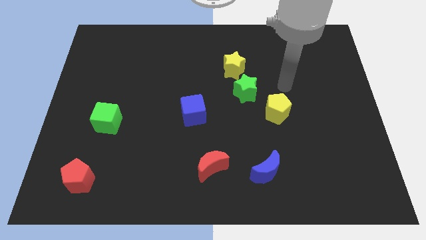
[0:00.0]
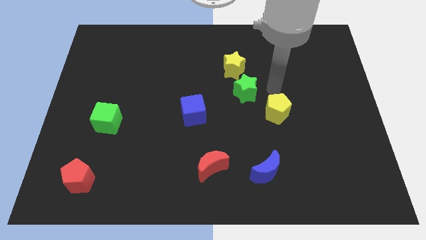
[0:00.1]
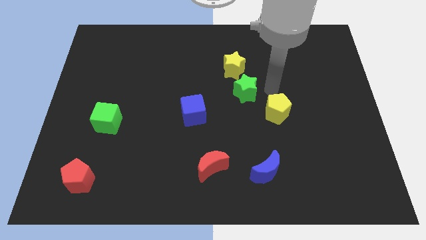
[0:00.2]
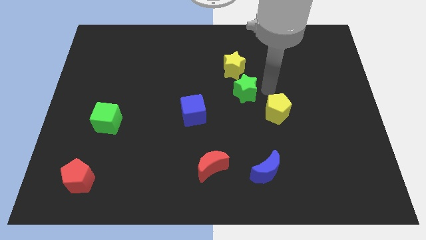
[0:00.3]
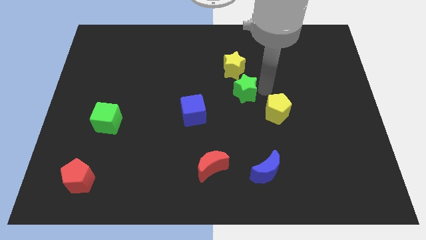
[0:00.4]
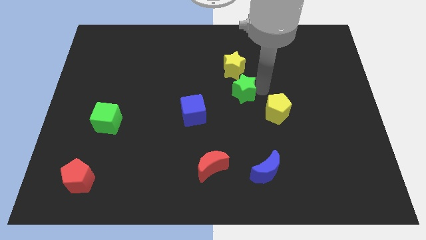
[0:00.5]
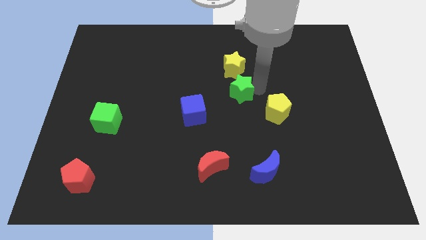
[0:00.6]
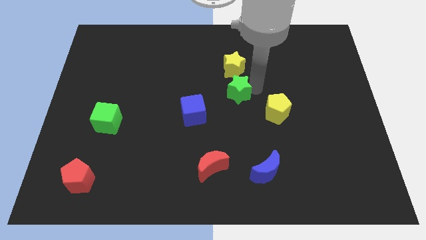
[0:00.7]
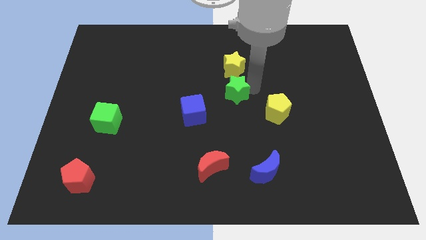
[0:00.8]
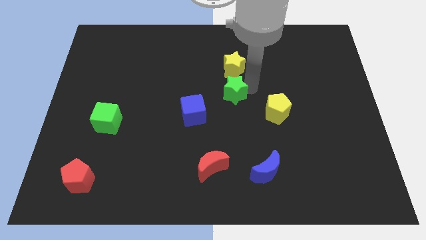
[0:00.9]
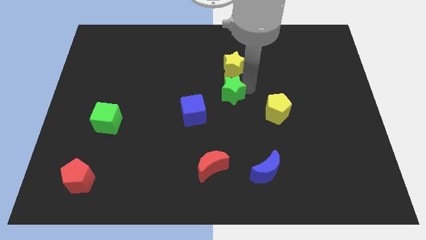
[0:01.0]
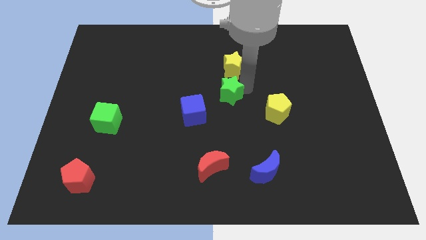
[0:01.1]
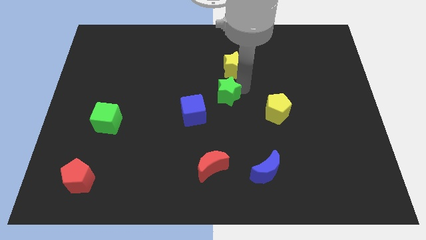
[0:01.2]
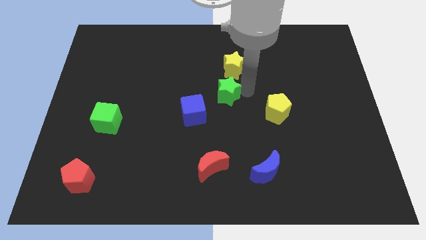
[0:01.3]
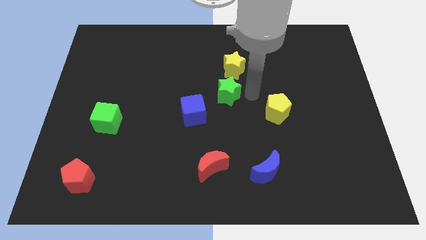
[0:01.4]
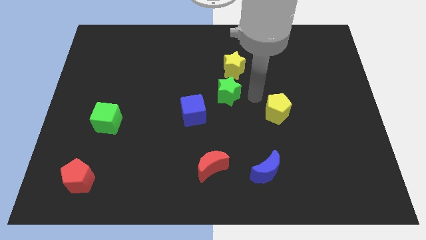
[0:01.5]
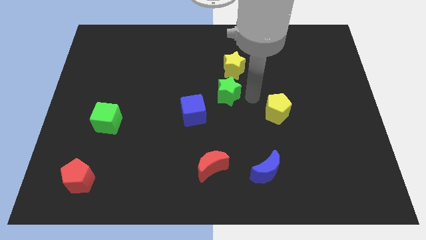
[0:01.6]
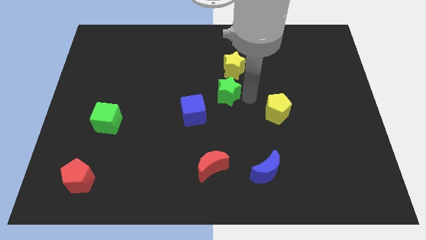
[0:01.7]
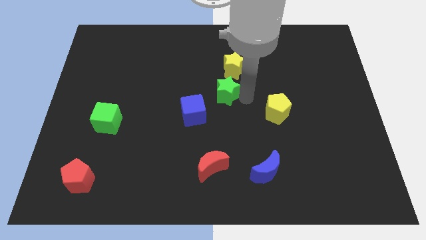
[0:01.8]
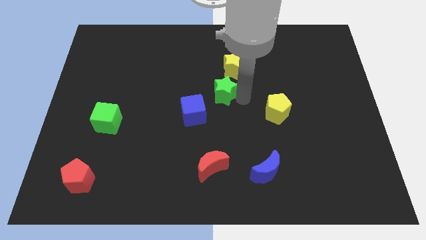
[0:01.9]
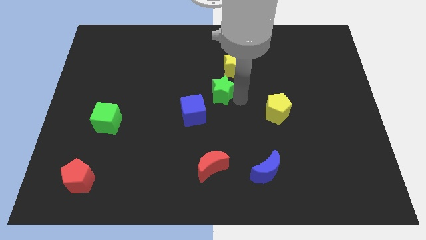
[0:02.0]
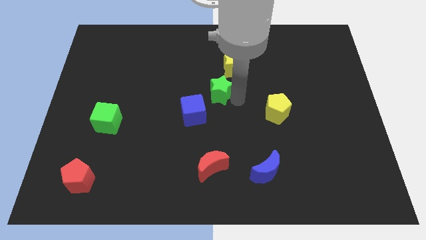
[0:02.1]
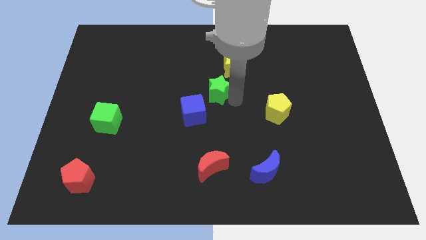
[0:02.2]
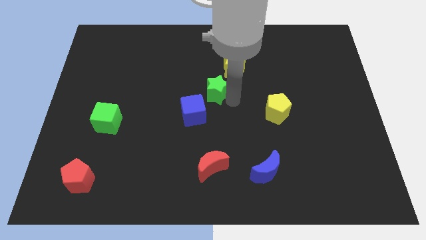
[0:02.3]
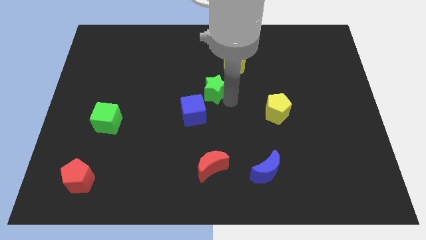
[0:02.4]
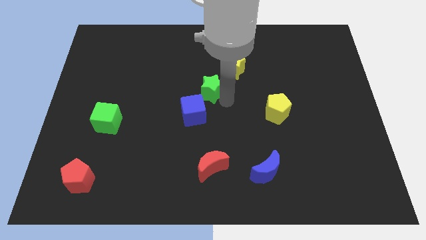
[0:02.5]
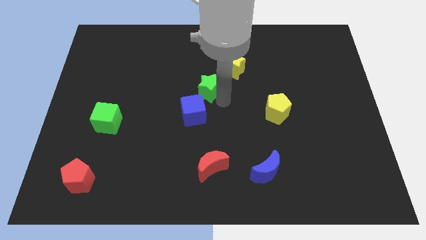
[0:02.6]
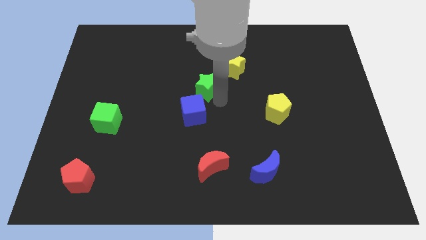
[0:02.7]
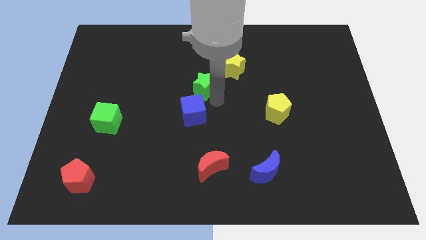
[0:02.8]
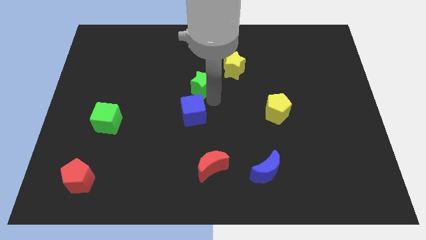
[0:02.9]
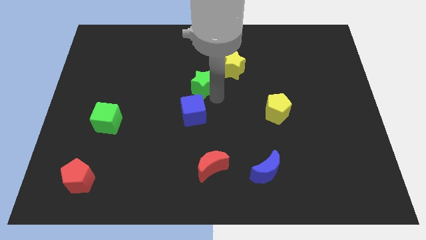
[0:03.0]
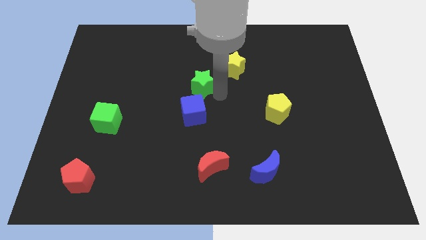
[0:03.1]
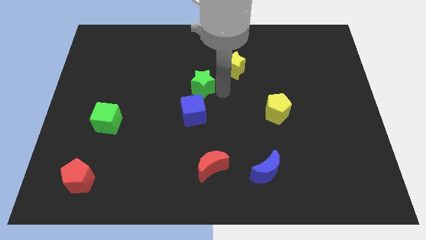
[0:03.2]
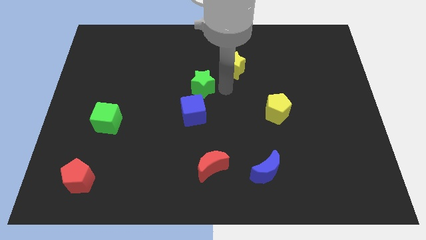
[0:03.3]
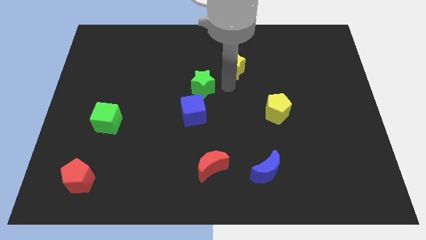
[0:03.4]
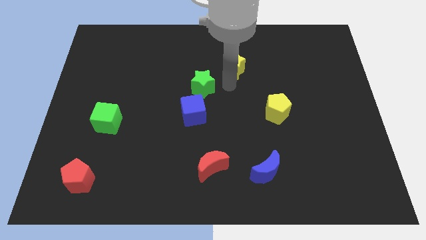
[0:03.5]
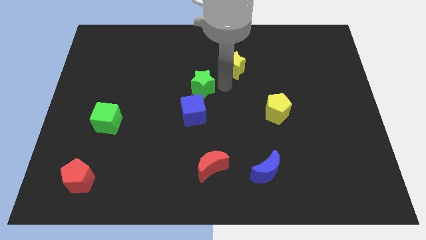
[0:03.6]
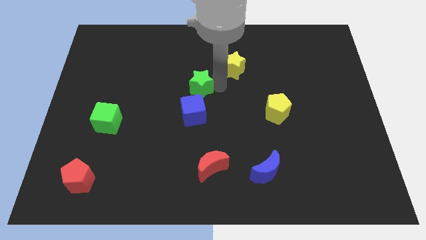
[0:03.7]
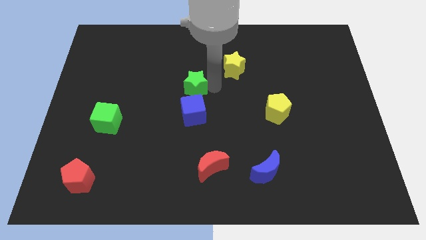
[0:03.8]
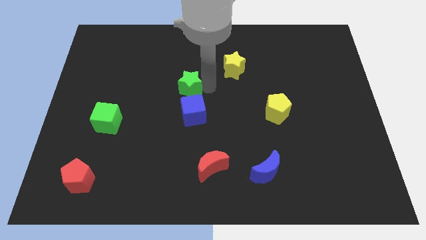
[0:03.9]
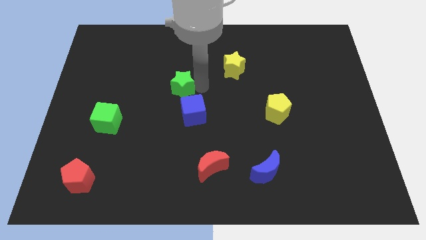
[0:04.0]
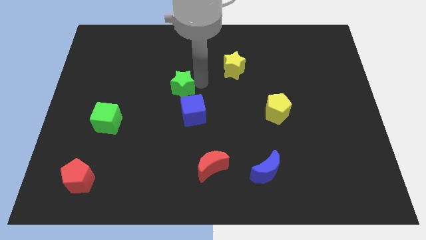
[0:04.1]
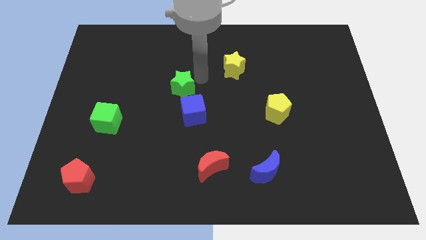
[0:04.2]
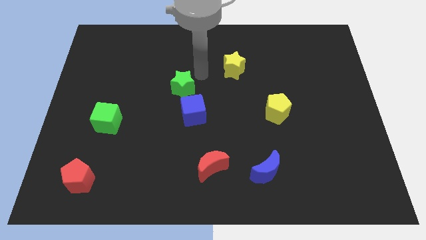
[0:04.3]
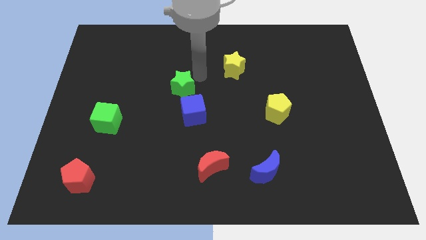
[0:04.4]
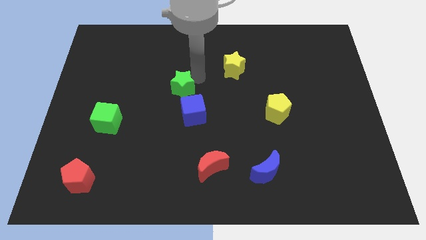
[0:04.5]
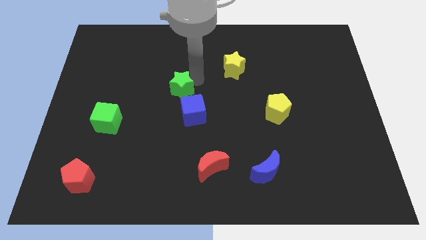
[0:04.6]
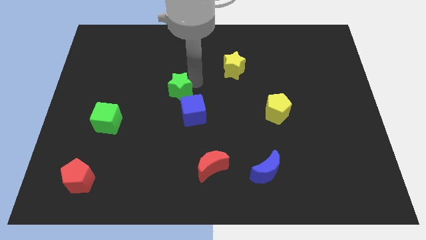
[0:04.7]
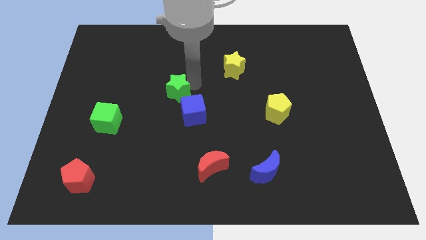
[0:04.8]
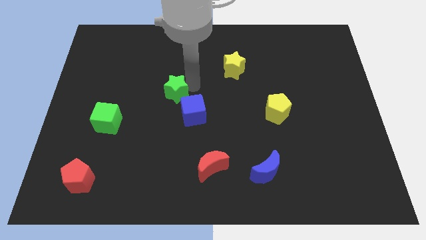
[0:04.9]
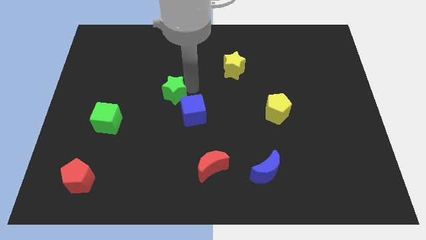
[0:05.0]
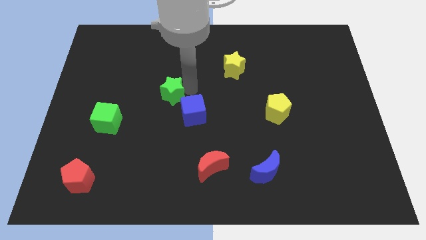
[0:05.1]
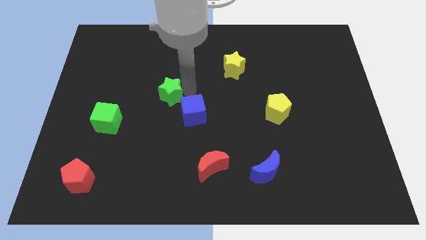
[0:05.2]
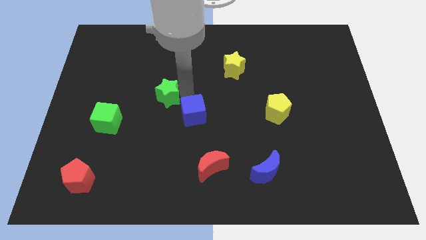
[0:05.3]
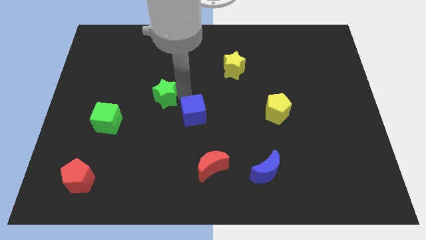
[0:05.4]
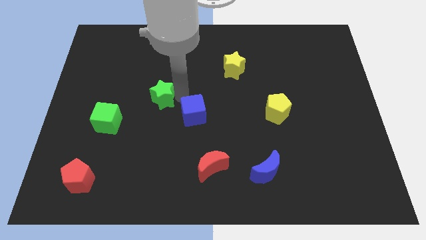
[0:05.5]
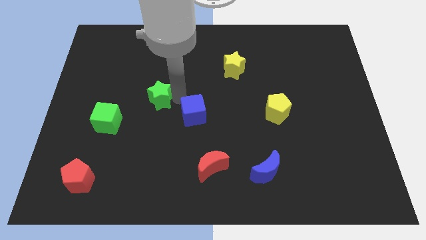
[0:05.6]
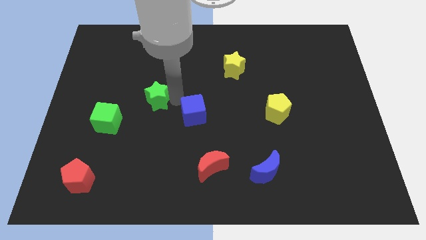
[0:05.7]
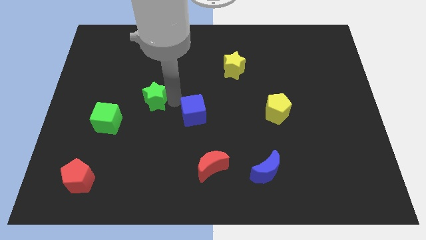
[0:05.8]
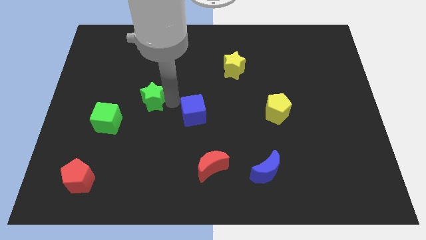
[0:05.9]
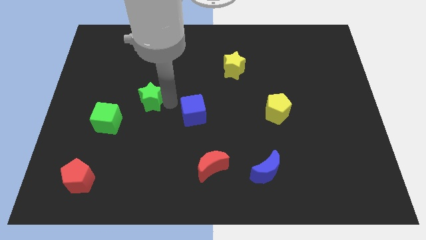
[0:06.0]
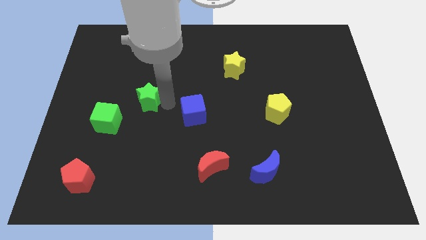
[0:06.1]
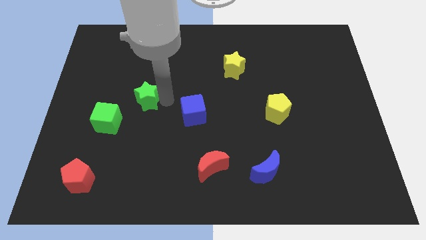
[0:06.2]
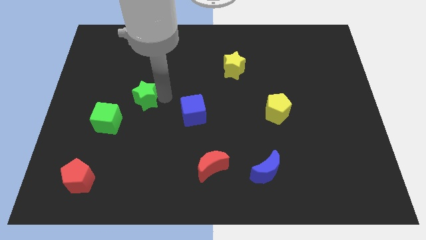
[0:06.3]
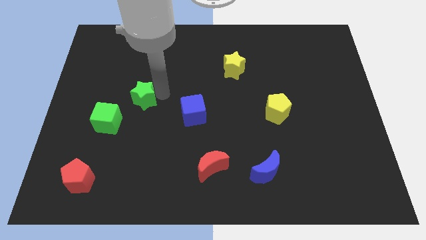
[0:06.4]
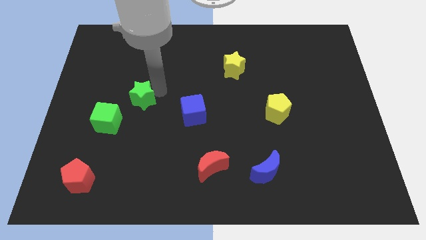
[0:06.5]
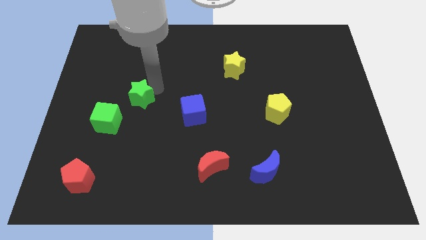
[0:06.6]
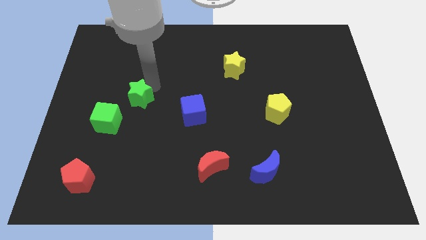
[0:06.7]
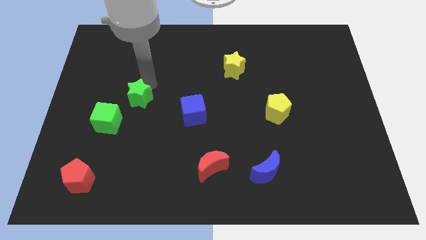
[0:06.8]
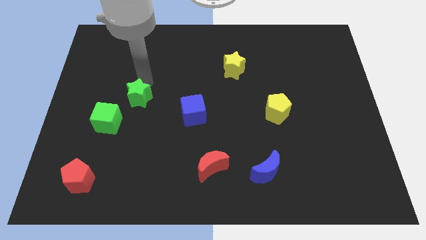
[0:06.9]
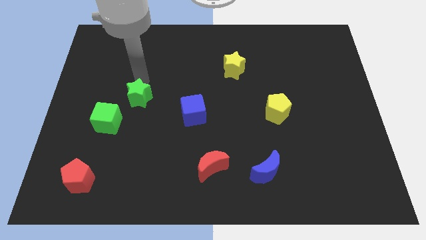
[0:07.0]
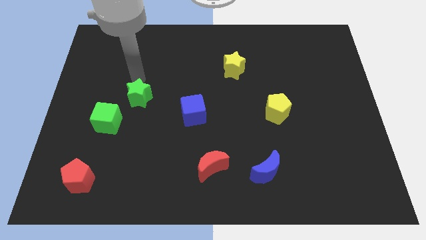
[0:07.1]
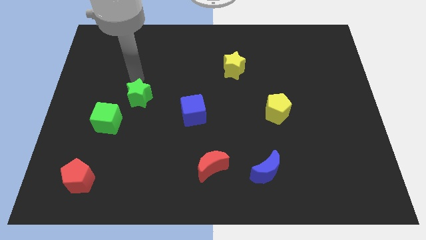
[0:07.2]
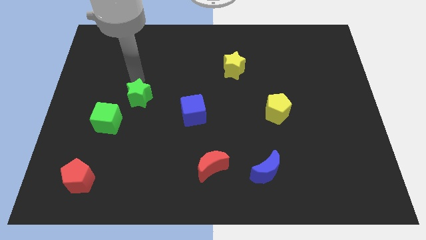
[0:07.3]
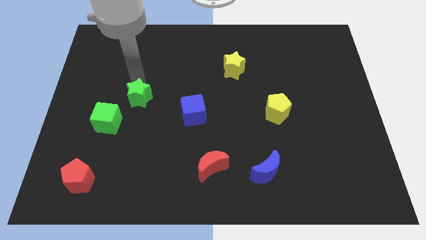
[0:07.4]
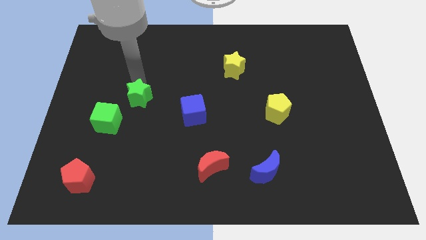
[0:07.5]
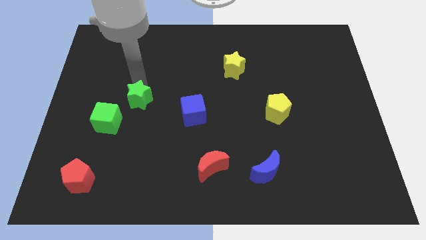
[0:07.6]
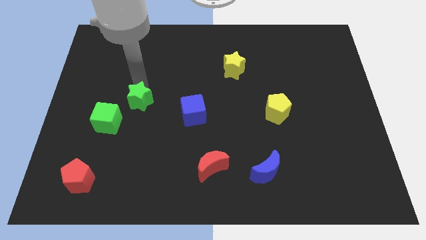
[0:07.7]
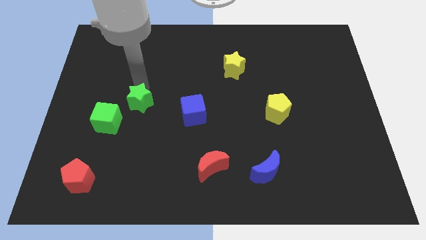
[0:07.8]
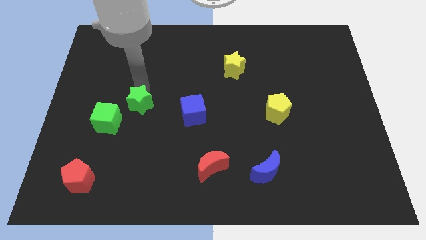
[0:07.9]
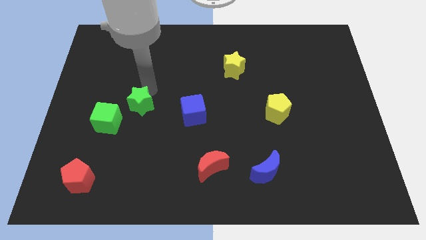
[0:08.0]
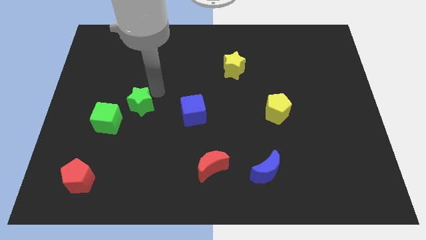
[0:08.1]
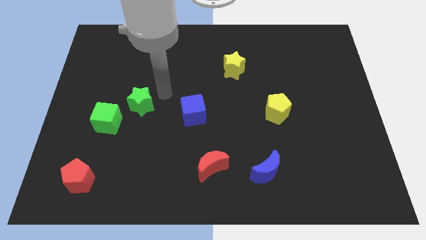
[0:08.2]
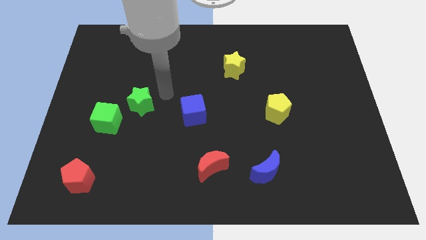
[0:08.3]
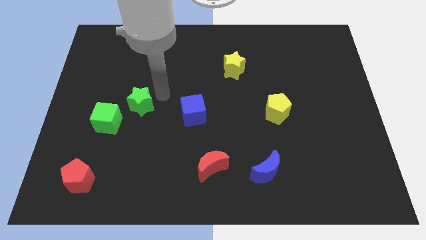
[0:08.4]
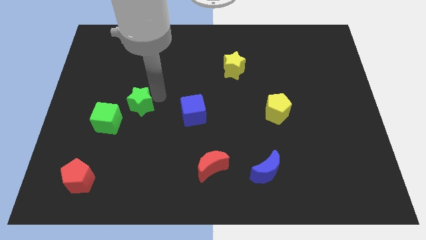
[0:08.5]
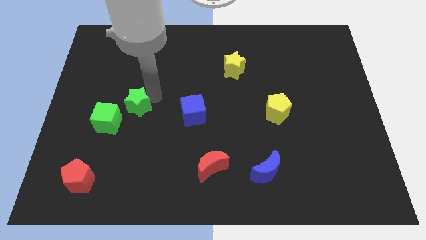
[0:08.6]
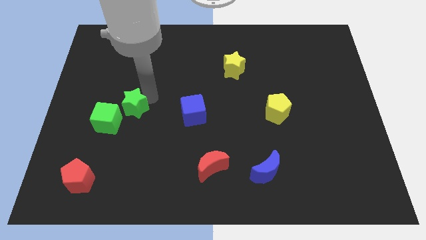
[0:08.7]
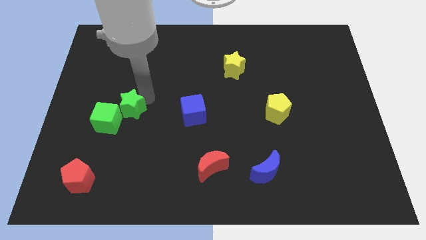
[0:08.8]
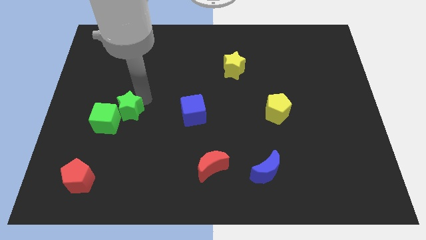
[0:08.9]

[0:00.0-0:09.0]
push the green star next to the green cube
